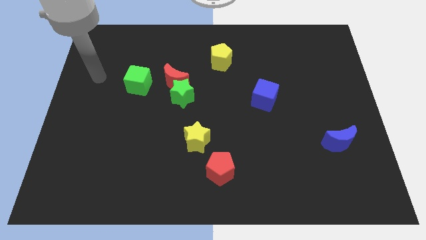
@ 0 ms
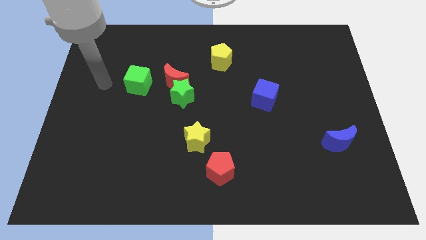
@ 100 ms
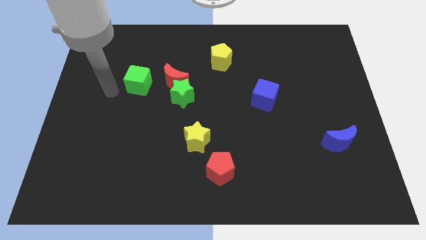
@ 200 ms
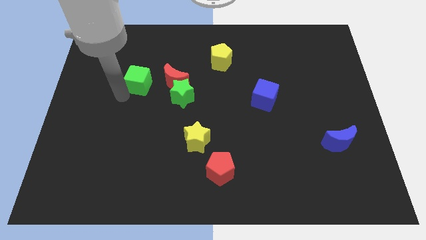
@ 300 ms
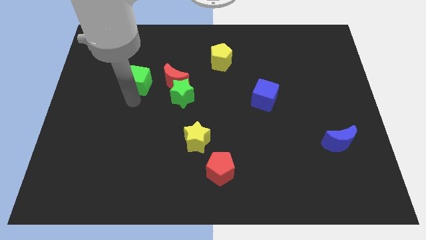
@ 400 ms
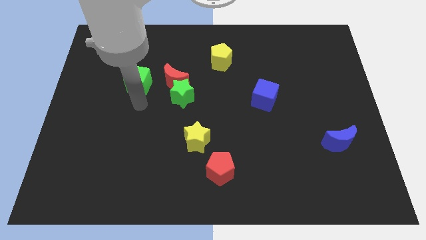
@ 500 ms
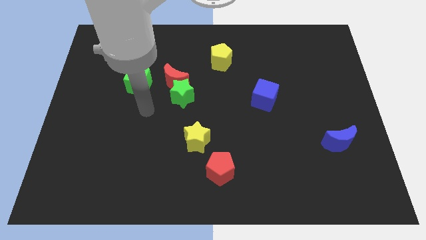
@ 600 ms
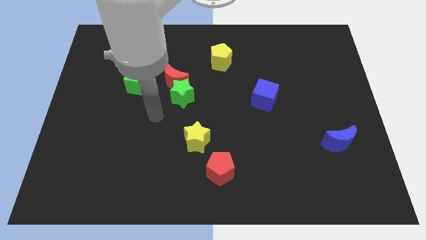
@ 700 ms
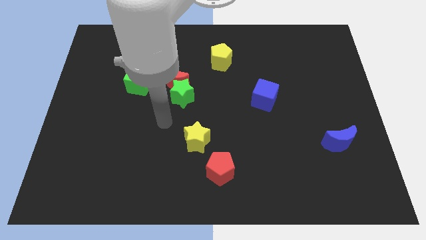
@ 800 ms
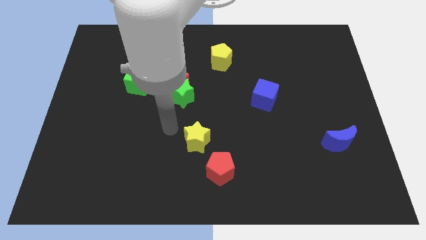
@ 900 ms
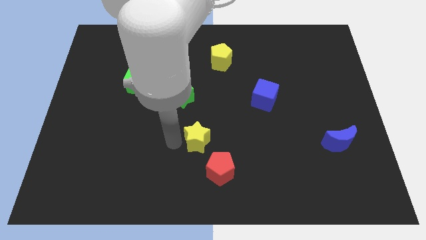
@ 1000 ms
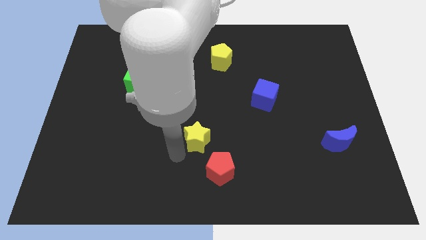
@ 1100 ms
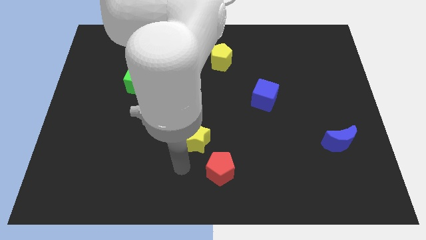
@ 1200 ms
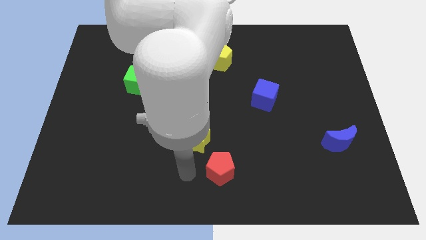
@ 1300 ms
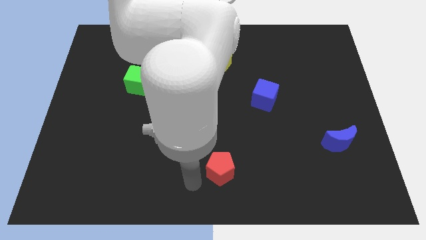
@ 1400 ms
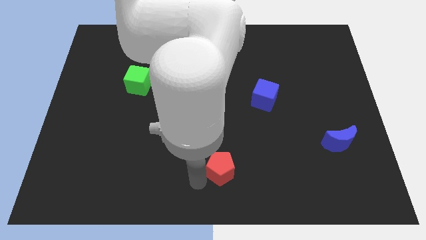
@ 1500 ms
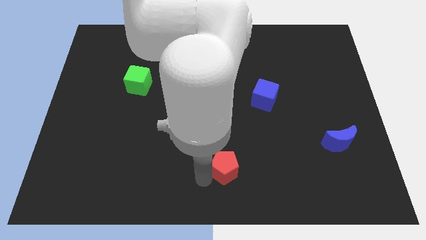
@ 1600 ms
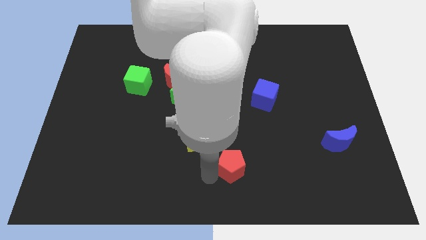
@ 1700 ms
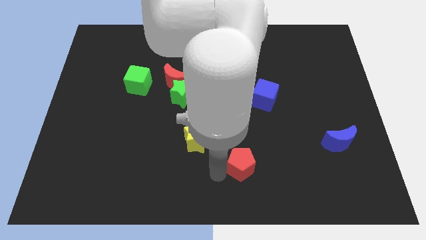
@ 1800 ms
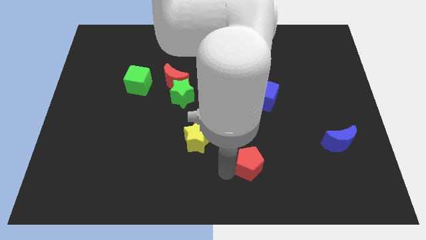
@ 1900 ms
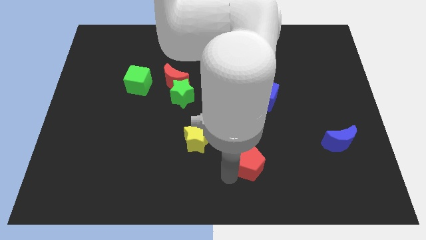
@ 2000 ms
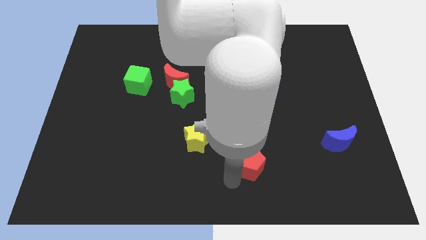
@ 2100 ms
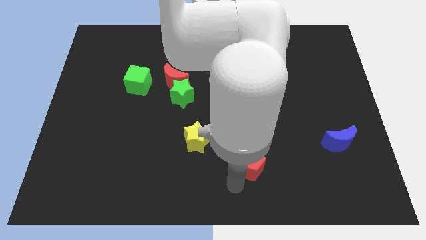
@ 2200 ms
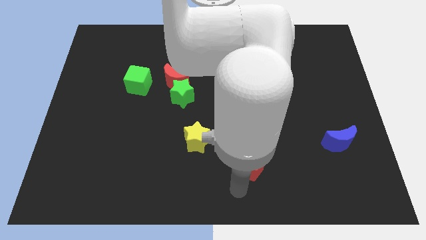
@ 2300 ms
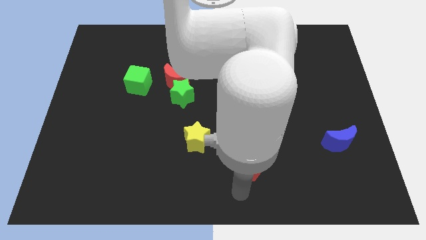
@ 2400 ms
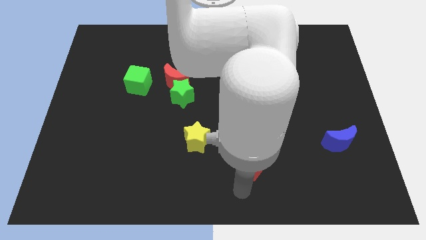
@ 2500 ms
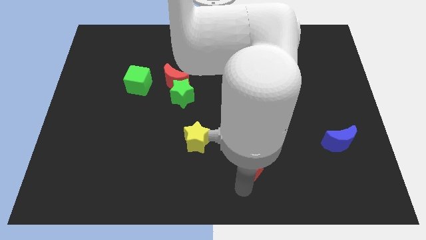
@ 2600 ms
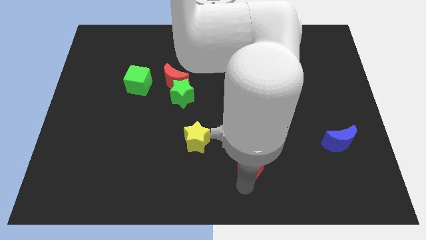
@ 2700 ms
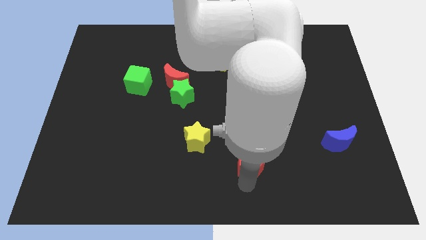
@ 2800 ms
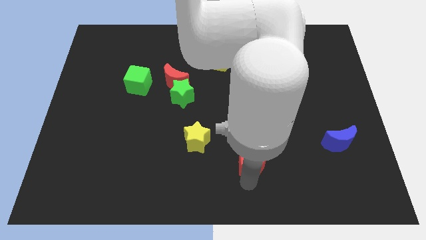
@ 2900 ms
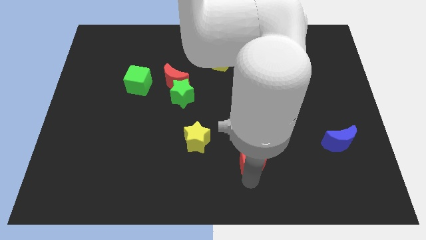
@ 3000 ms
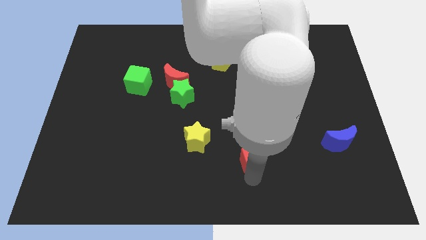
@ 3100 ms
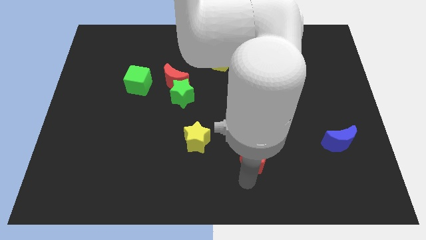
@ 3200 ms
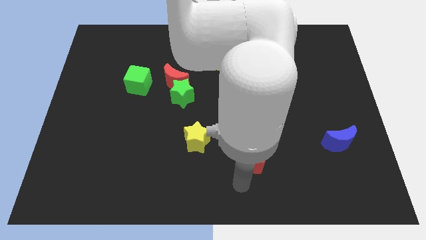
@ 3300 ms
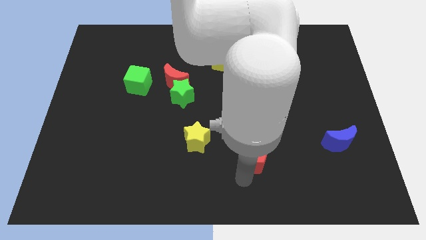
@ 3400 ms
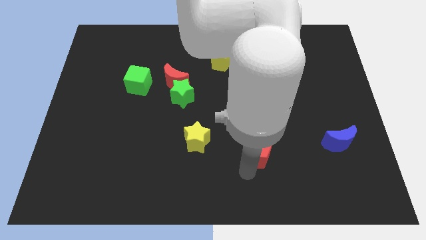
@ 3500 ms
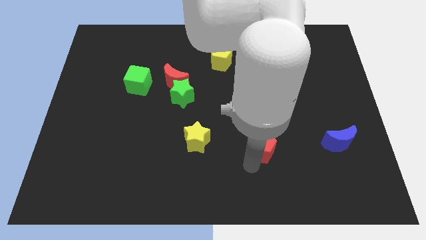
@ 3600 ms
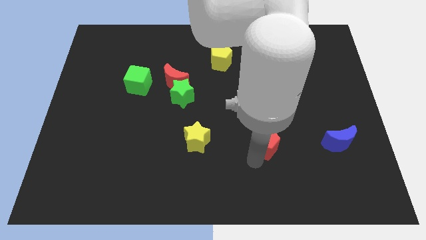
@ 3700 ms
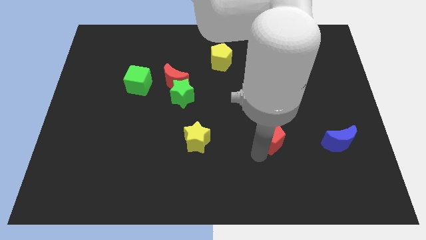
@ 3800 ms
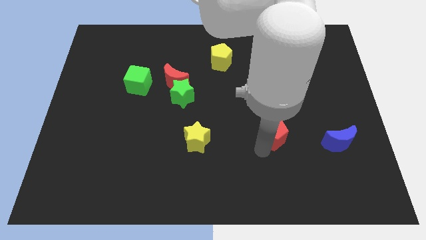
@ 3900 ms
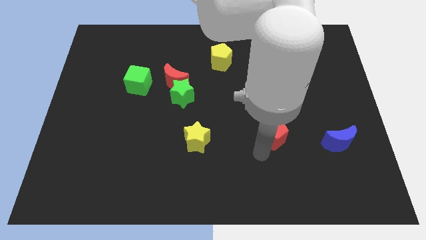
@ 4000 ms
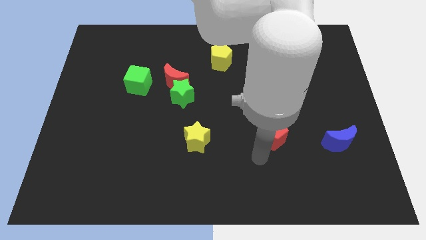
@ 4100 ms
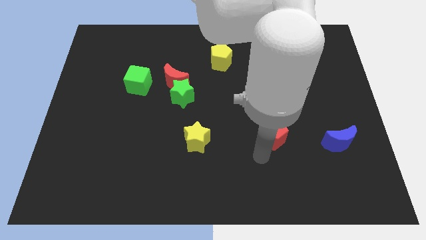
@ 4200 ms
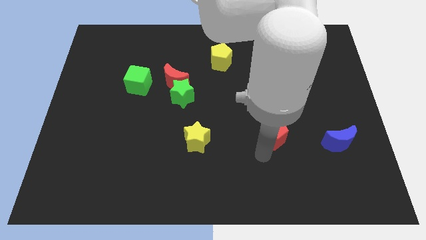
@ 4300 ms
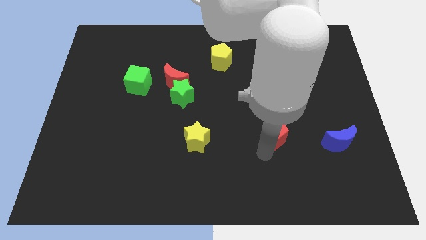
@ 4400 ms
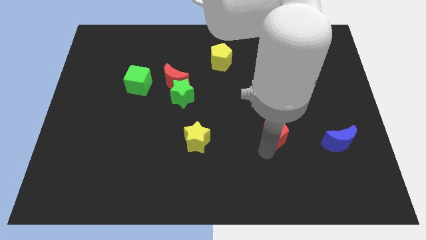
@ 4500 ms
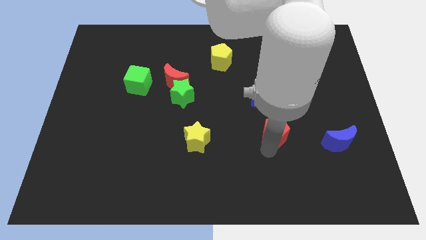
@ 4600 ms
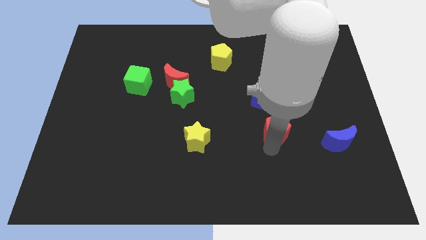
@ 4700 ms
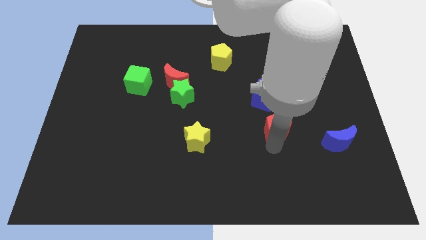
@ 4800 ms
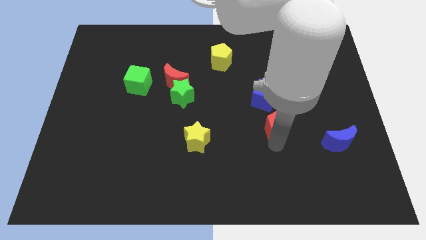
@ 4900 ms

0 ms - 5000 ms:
slide the red pentagon diagonally down and to the right of the blue cube

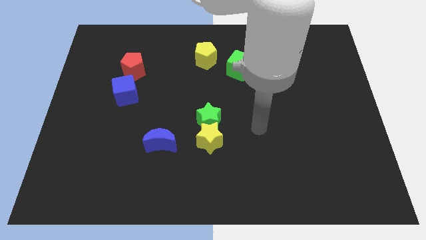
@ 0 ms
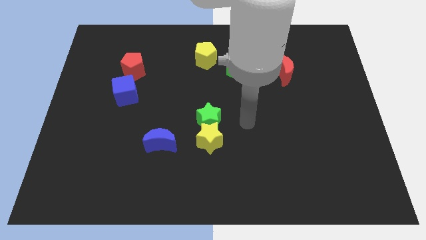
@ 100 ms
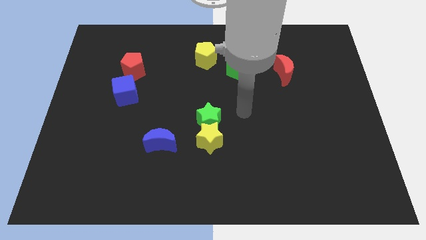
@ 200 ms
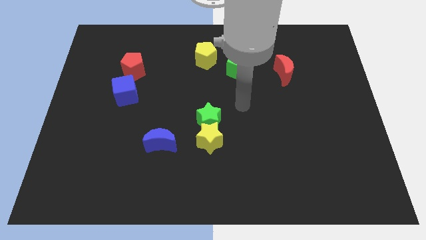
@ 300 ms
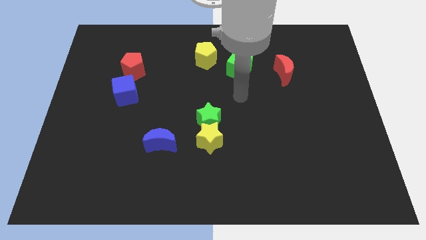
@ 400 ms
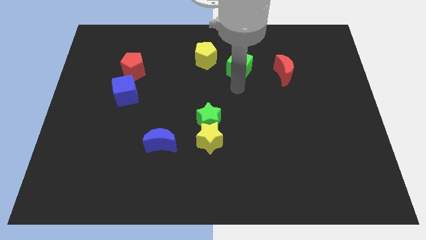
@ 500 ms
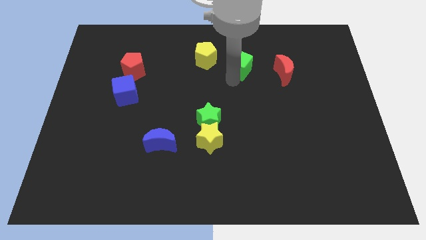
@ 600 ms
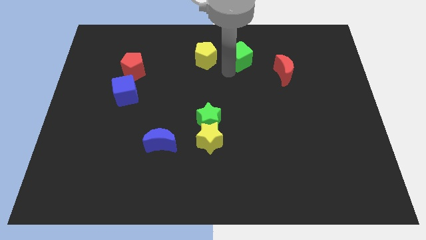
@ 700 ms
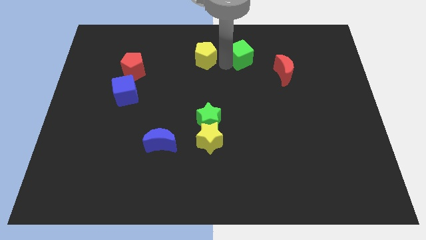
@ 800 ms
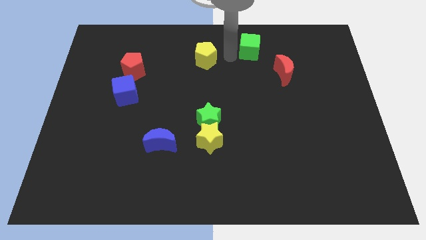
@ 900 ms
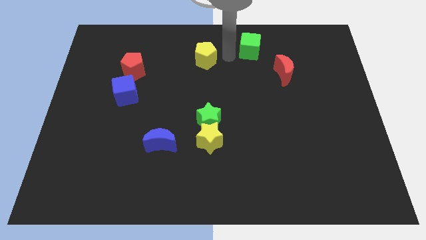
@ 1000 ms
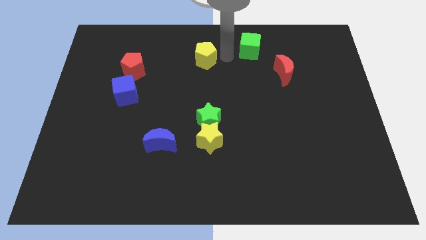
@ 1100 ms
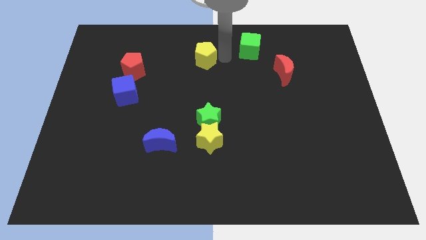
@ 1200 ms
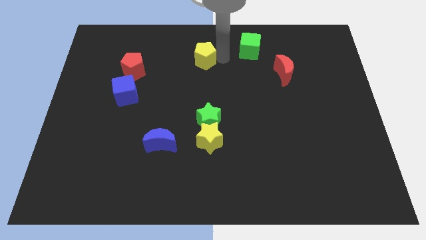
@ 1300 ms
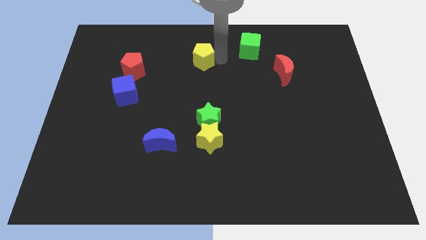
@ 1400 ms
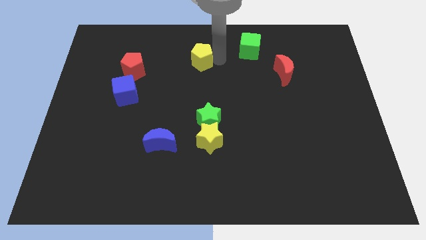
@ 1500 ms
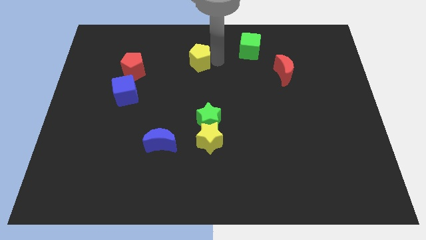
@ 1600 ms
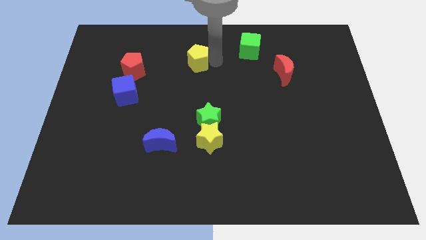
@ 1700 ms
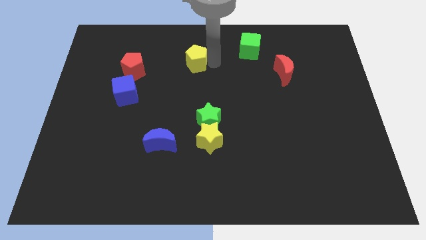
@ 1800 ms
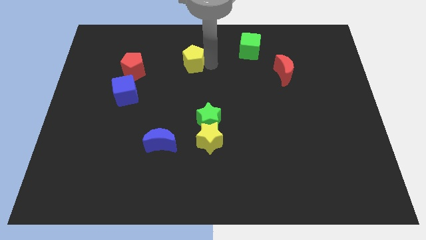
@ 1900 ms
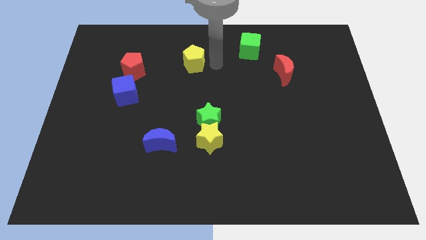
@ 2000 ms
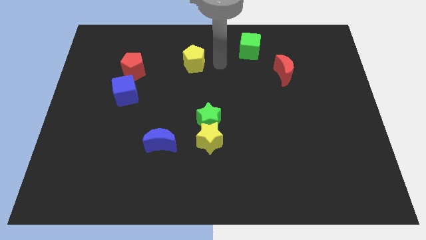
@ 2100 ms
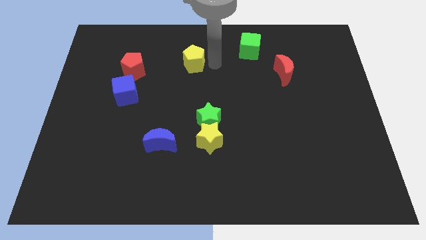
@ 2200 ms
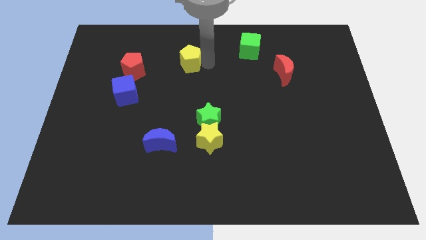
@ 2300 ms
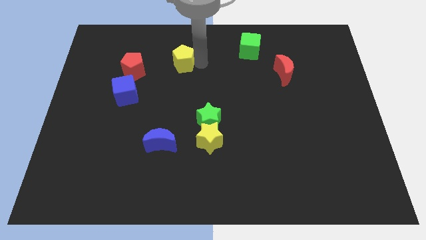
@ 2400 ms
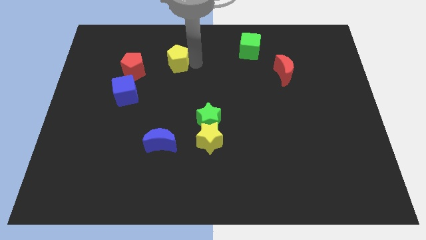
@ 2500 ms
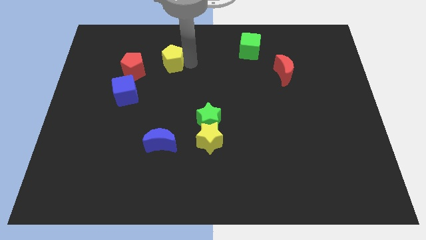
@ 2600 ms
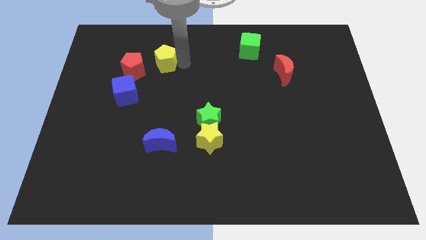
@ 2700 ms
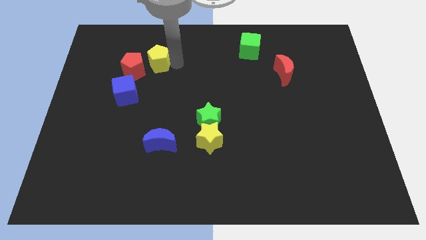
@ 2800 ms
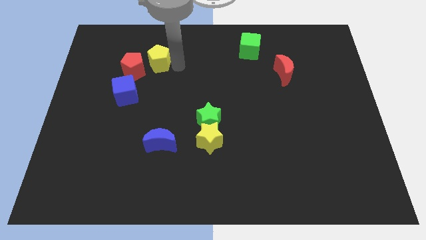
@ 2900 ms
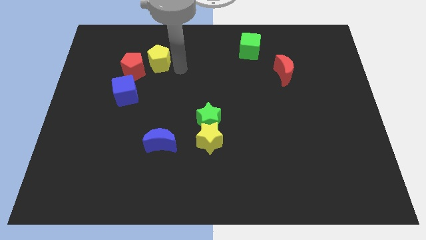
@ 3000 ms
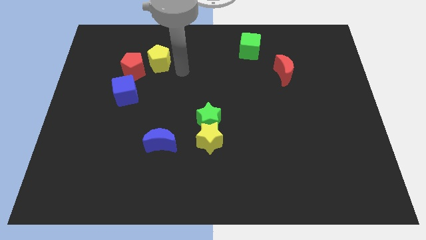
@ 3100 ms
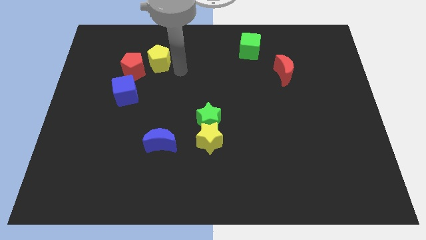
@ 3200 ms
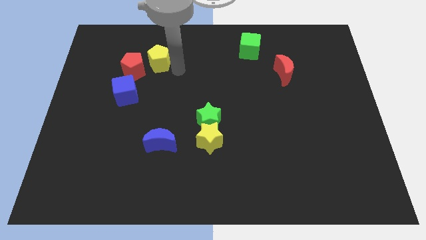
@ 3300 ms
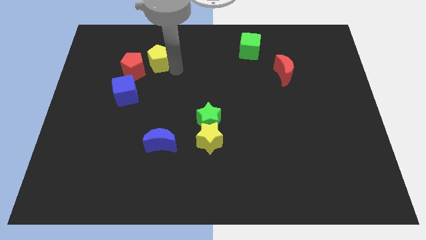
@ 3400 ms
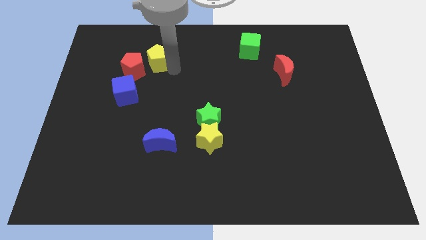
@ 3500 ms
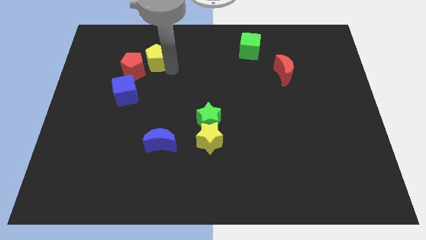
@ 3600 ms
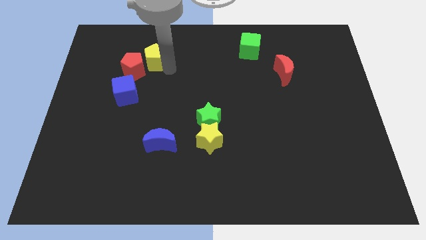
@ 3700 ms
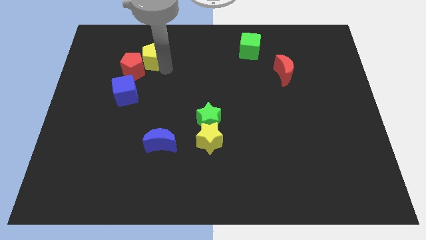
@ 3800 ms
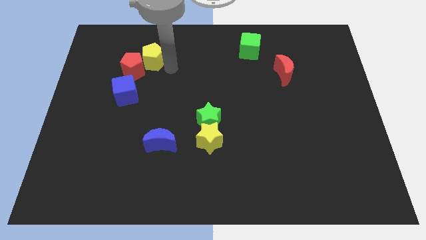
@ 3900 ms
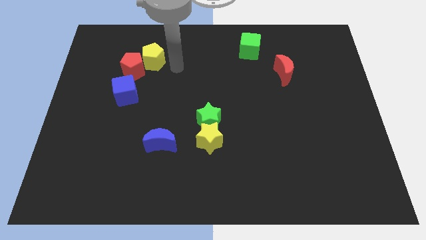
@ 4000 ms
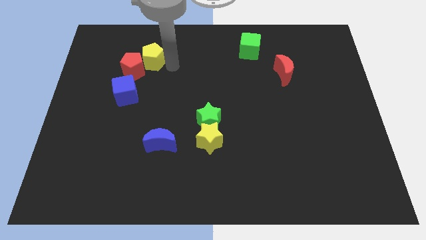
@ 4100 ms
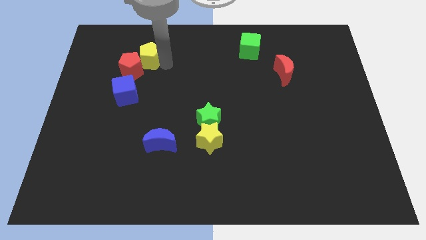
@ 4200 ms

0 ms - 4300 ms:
put the yellow pentagon to the top side of the blue cube
